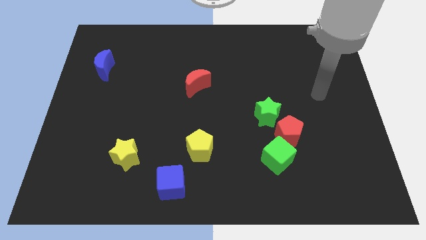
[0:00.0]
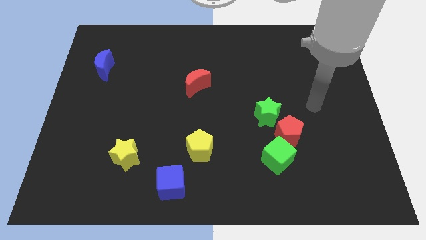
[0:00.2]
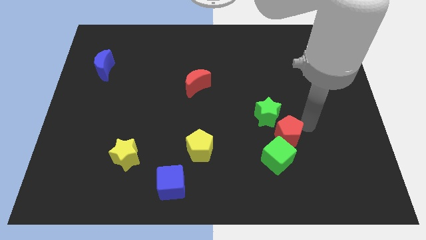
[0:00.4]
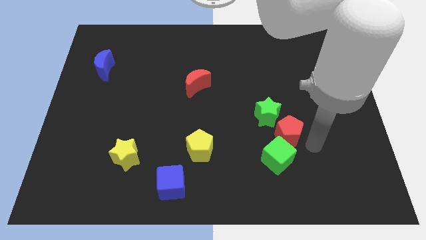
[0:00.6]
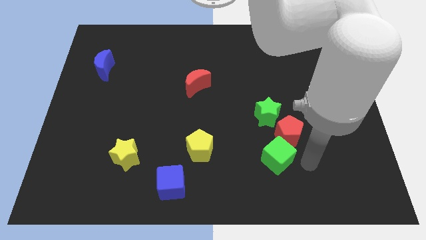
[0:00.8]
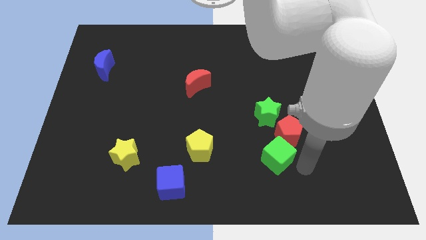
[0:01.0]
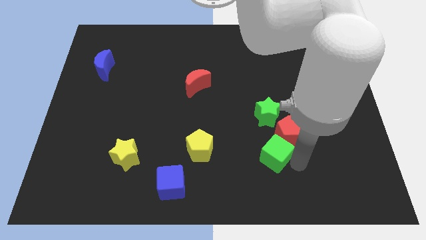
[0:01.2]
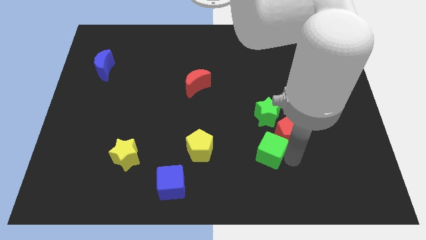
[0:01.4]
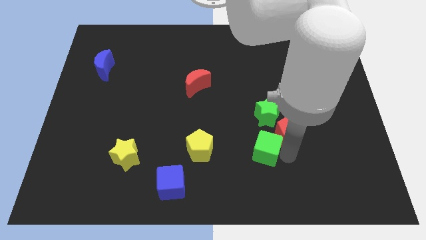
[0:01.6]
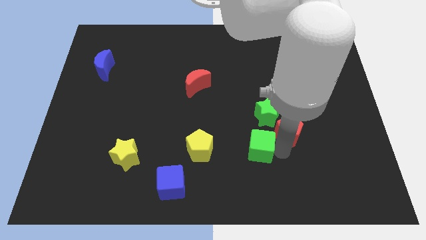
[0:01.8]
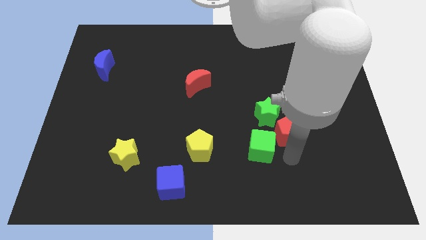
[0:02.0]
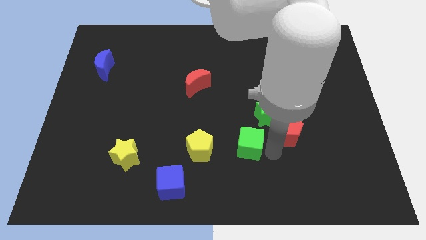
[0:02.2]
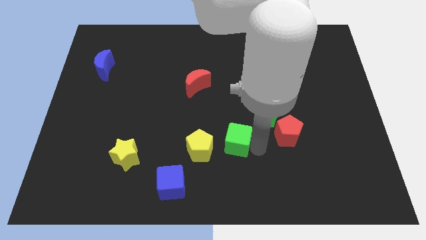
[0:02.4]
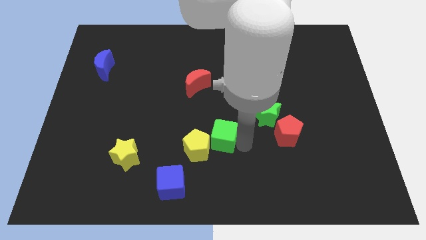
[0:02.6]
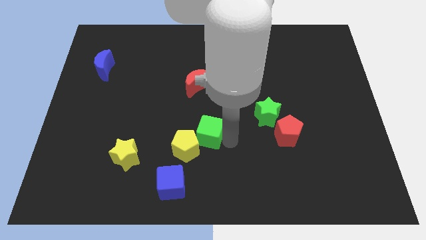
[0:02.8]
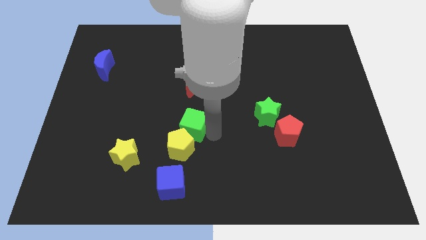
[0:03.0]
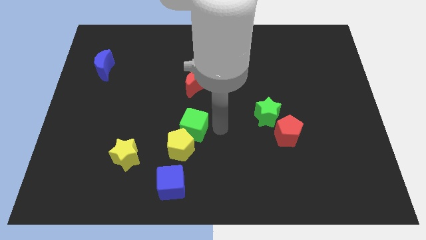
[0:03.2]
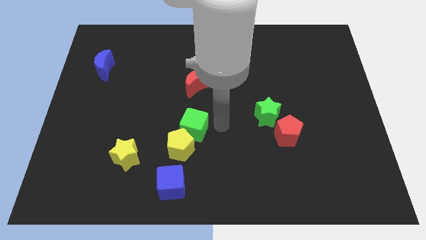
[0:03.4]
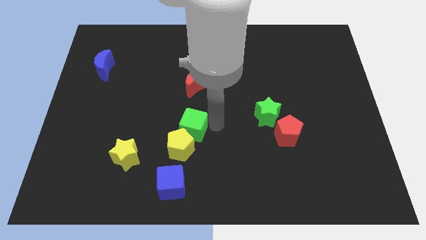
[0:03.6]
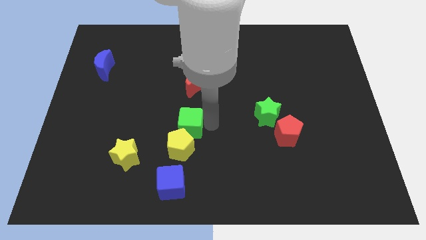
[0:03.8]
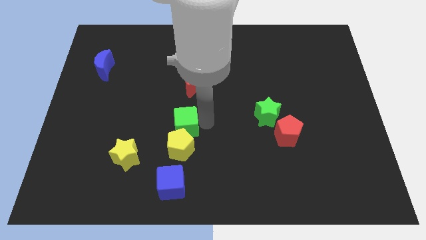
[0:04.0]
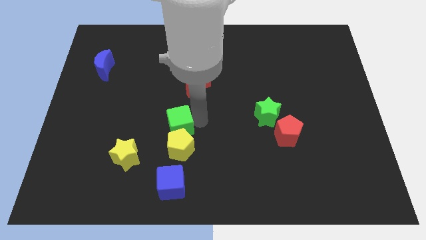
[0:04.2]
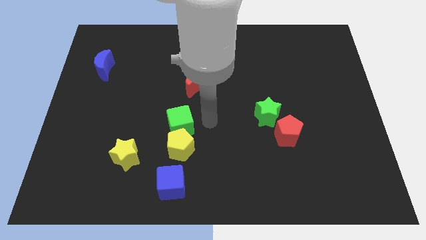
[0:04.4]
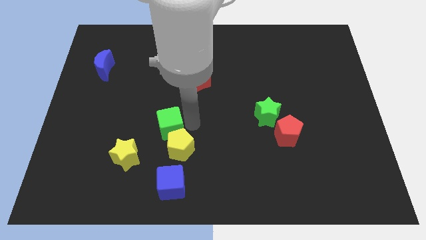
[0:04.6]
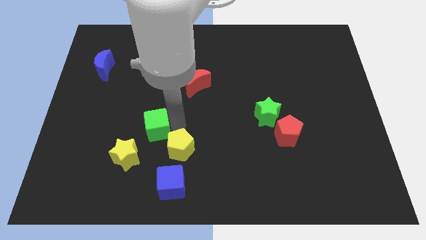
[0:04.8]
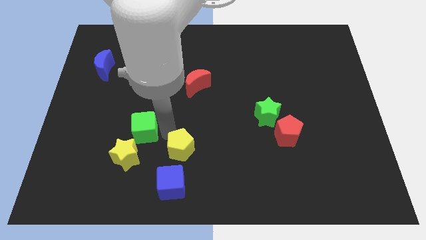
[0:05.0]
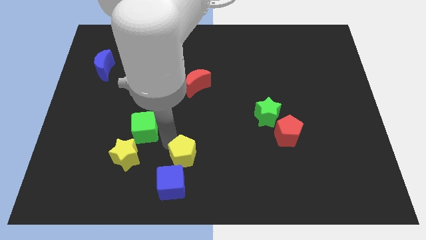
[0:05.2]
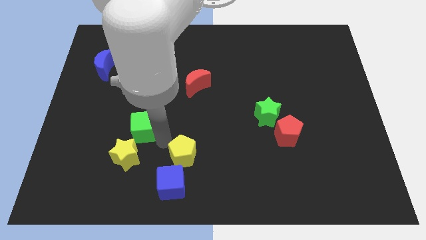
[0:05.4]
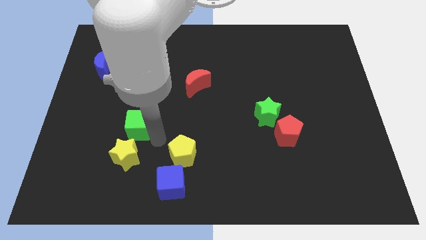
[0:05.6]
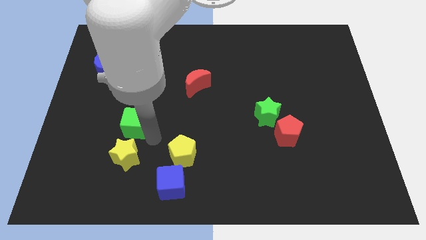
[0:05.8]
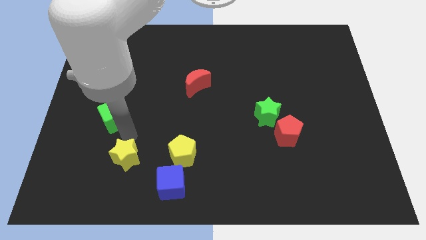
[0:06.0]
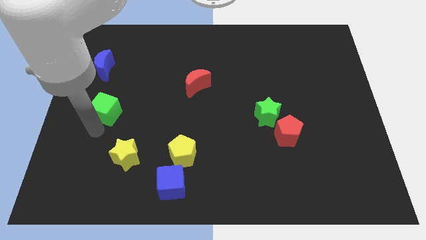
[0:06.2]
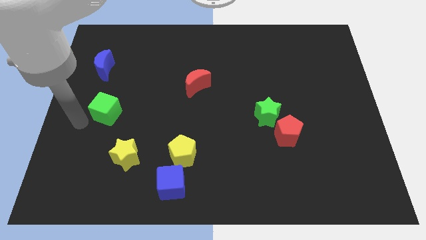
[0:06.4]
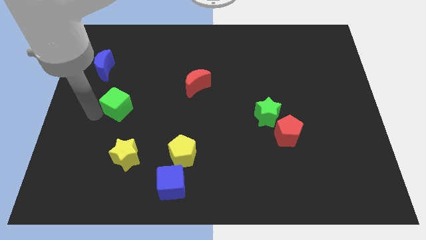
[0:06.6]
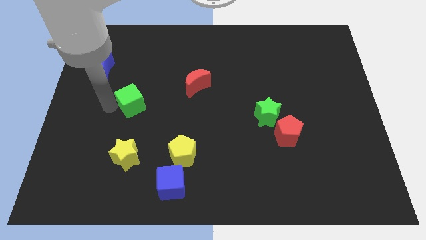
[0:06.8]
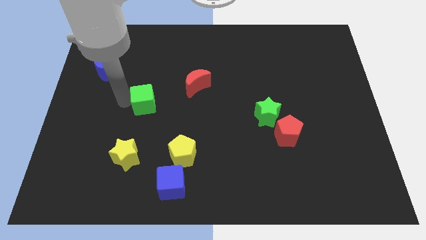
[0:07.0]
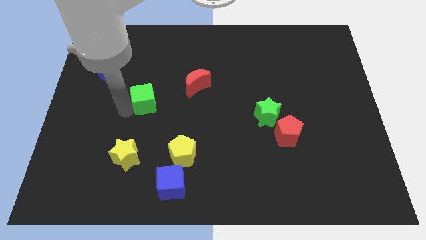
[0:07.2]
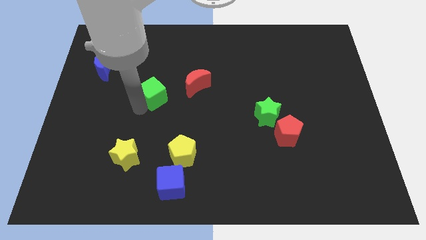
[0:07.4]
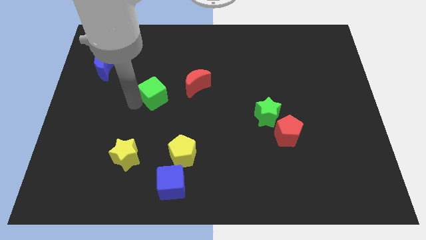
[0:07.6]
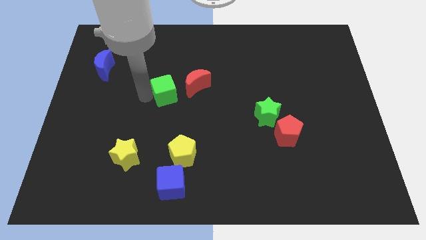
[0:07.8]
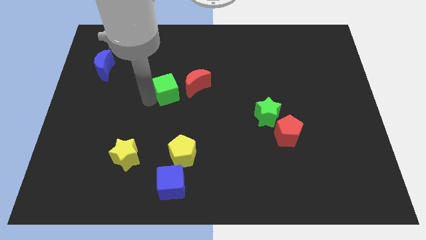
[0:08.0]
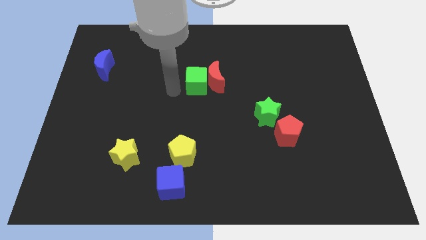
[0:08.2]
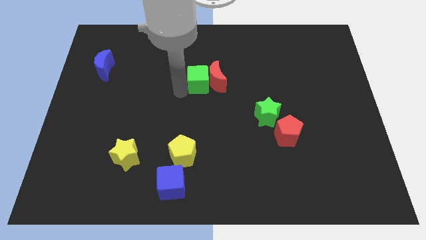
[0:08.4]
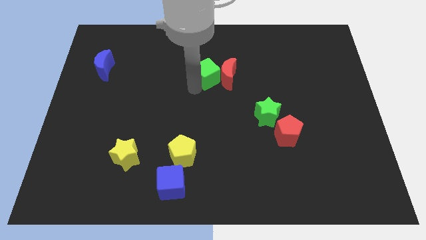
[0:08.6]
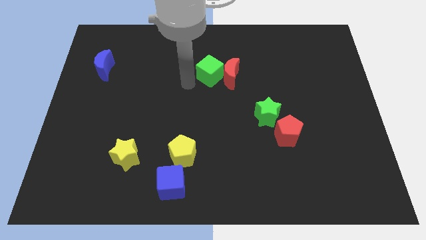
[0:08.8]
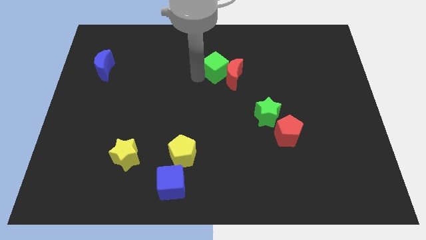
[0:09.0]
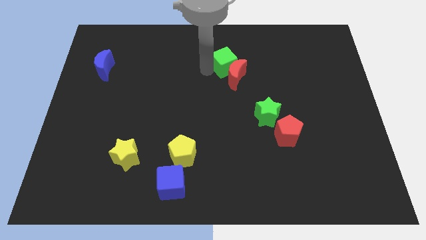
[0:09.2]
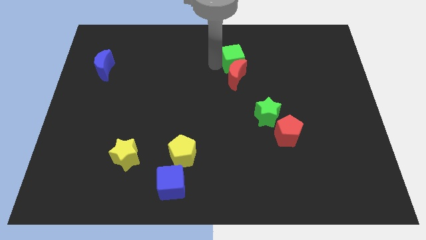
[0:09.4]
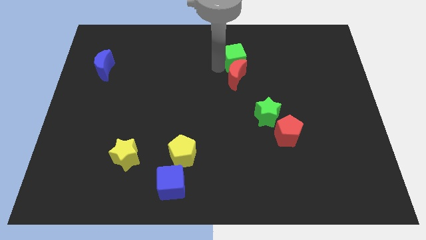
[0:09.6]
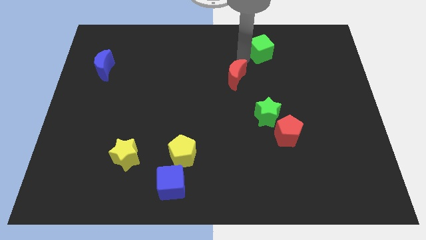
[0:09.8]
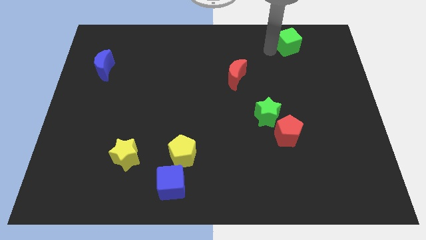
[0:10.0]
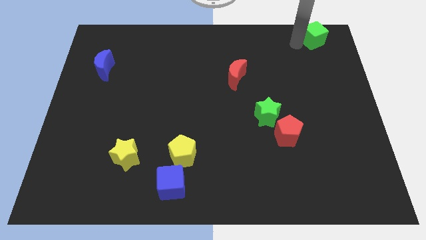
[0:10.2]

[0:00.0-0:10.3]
slide the green cube to the top right of the board

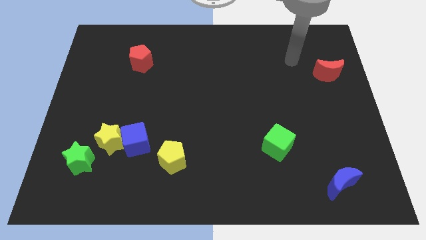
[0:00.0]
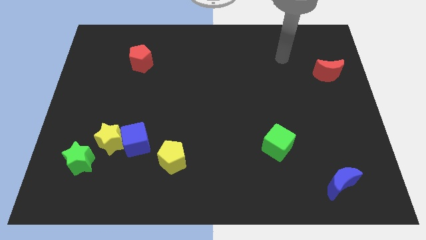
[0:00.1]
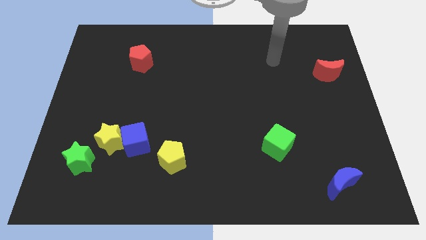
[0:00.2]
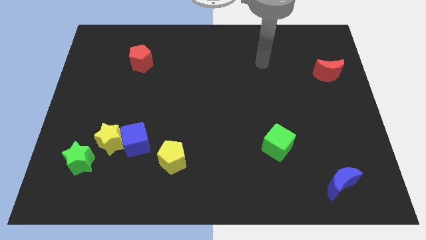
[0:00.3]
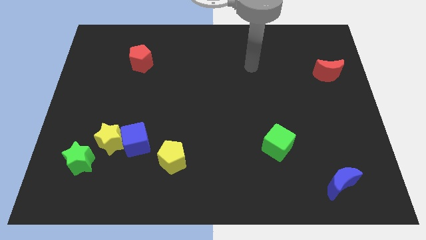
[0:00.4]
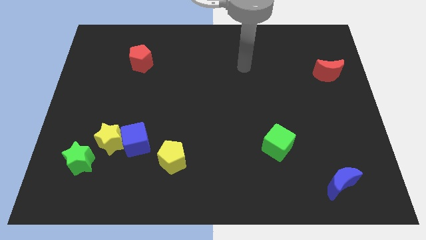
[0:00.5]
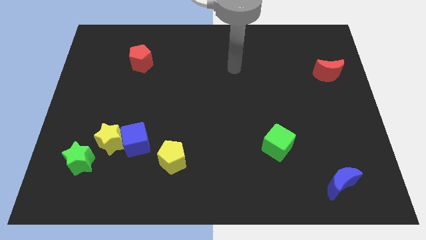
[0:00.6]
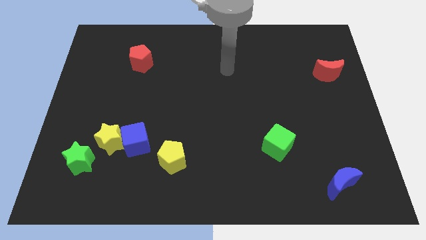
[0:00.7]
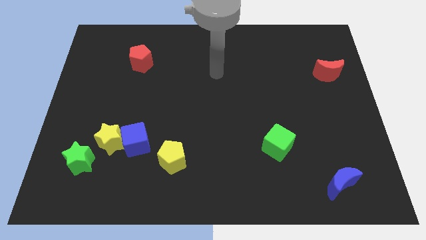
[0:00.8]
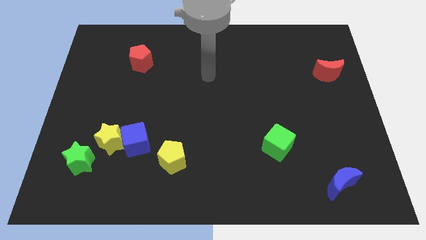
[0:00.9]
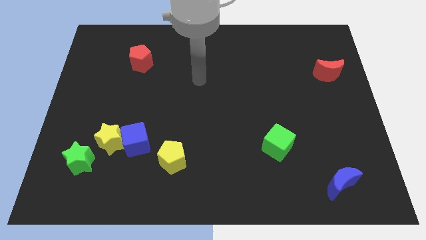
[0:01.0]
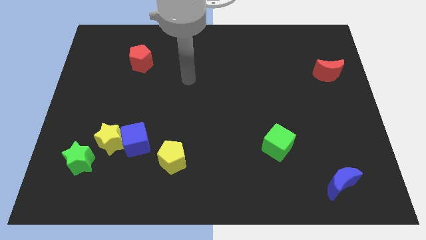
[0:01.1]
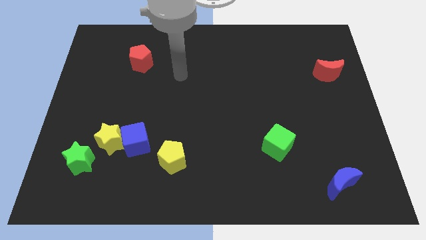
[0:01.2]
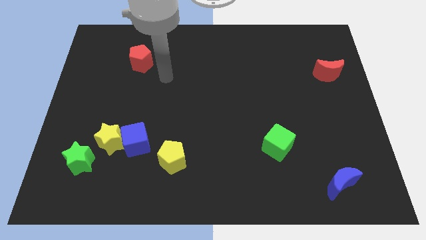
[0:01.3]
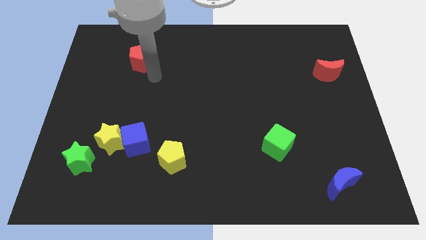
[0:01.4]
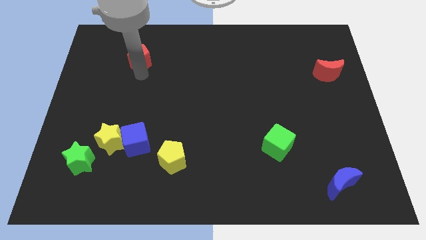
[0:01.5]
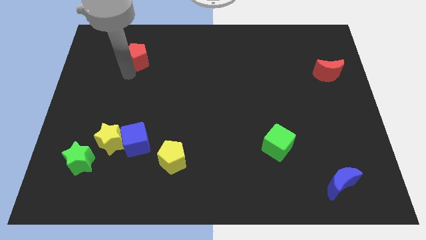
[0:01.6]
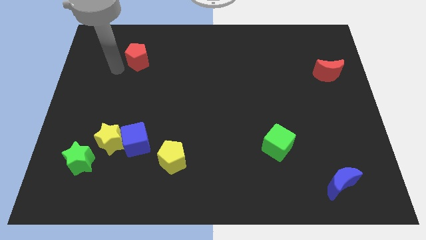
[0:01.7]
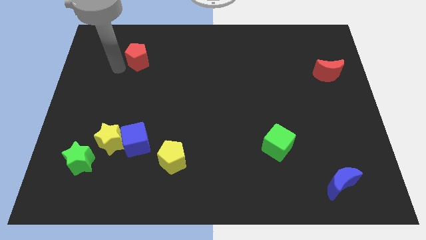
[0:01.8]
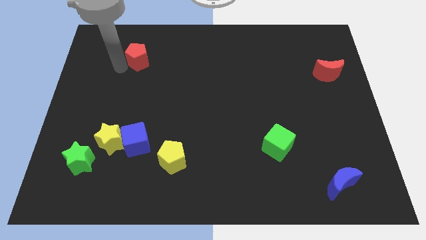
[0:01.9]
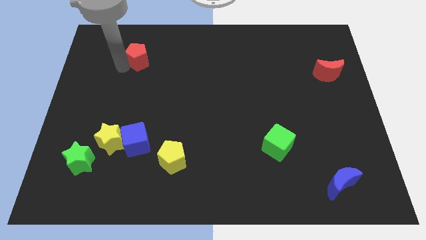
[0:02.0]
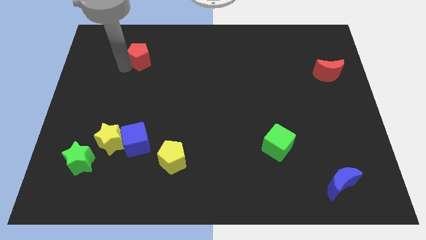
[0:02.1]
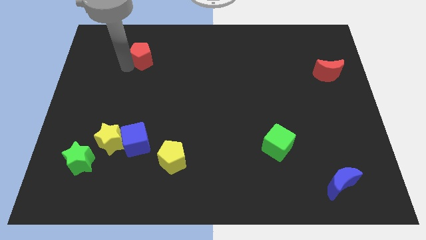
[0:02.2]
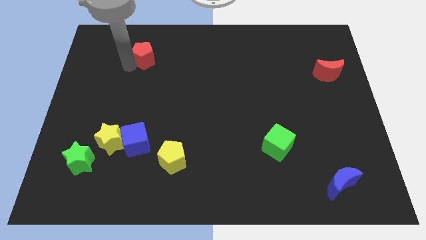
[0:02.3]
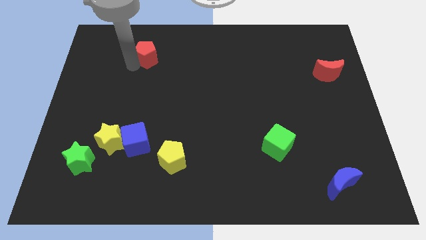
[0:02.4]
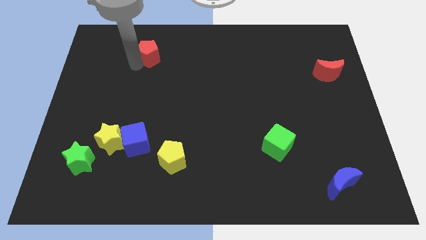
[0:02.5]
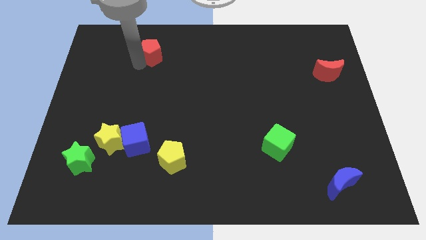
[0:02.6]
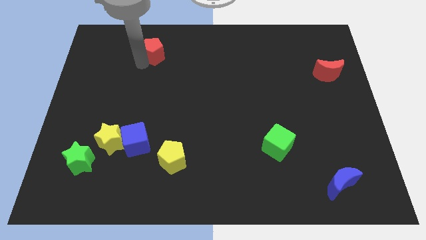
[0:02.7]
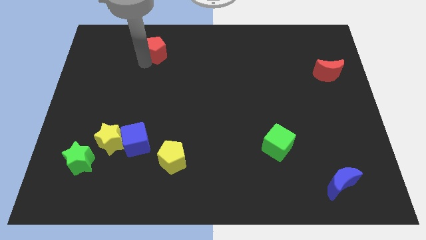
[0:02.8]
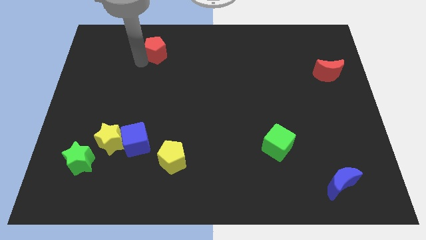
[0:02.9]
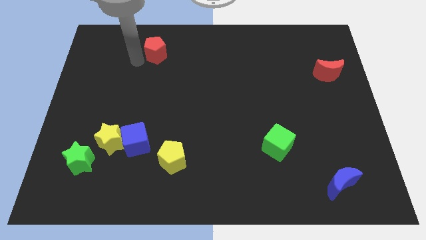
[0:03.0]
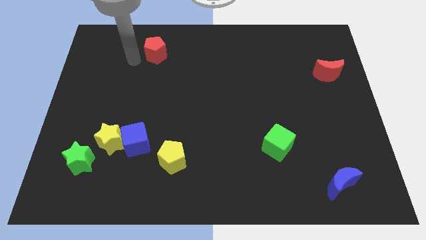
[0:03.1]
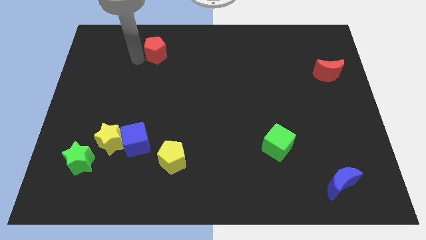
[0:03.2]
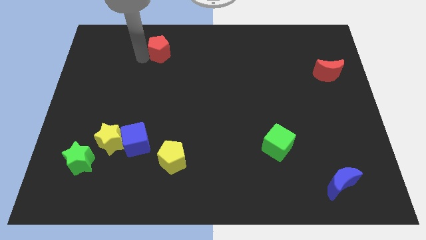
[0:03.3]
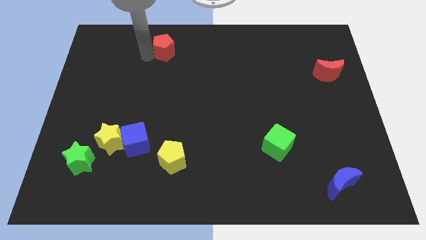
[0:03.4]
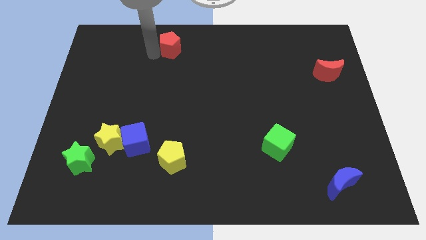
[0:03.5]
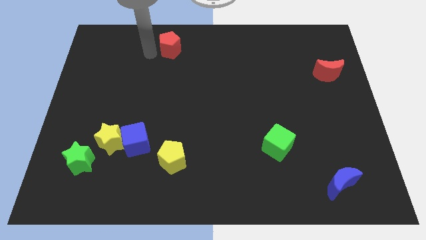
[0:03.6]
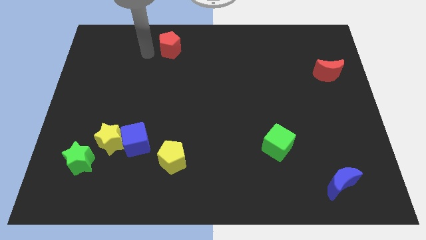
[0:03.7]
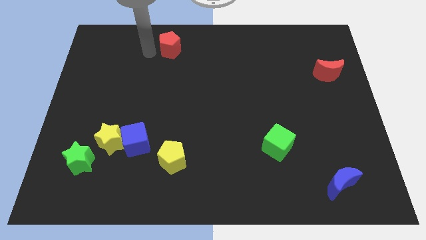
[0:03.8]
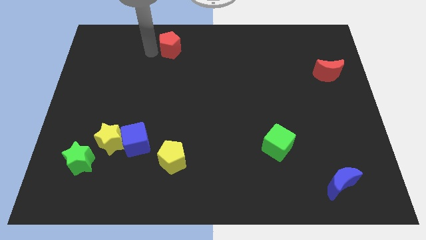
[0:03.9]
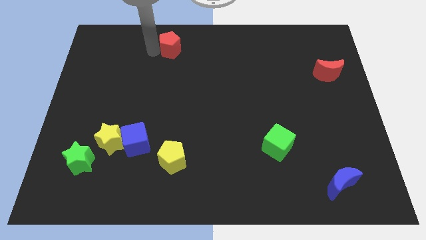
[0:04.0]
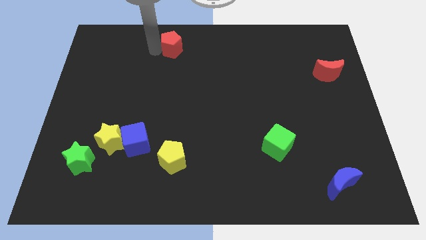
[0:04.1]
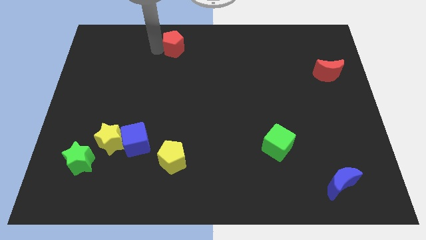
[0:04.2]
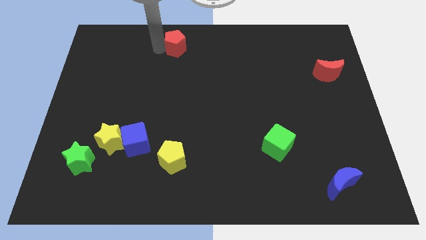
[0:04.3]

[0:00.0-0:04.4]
move the red pentagon to the top
